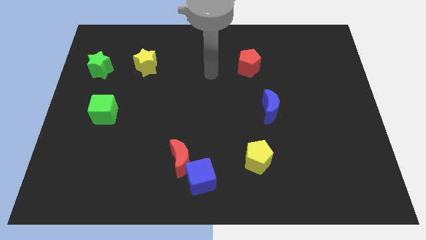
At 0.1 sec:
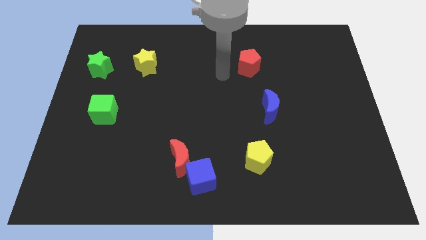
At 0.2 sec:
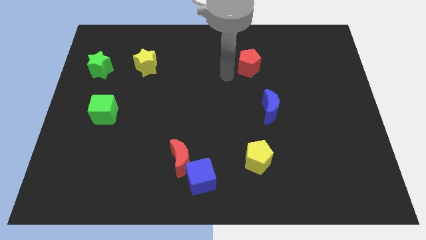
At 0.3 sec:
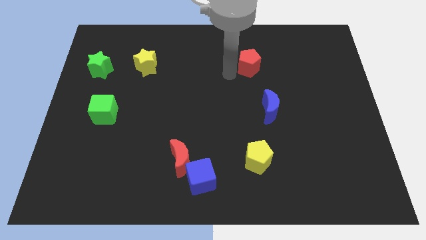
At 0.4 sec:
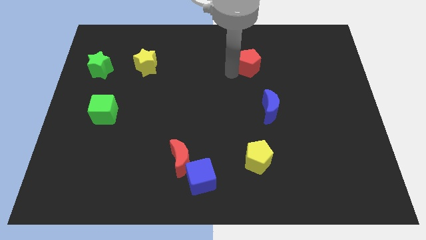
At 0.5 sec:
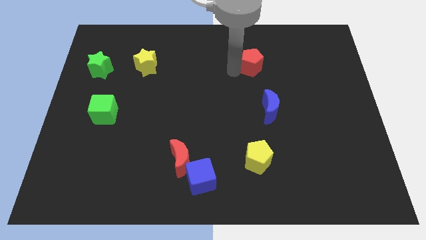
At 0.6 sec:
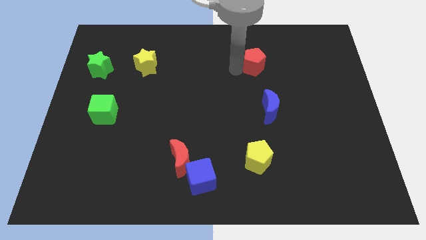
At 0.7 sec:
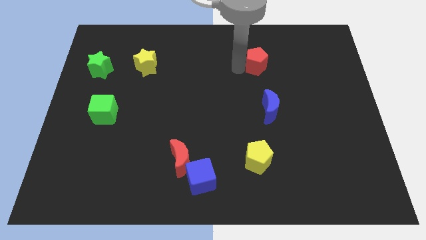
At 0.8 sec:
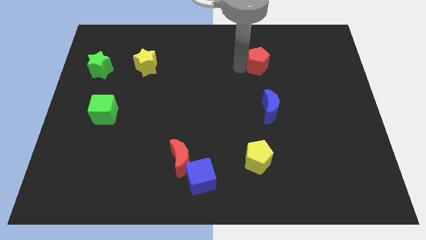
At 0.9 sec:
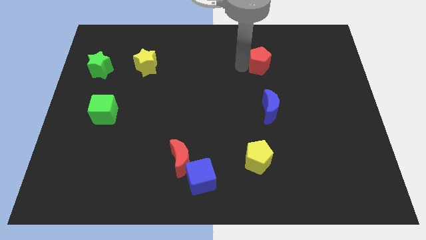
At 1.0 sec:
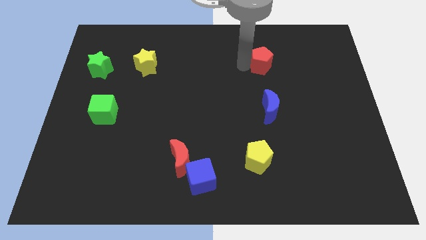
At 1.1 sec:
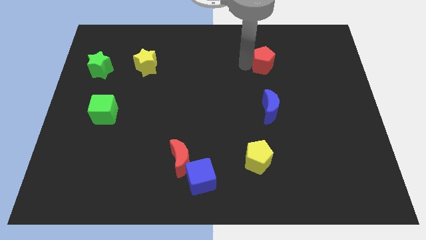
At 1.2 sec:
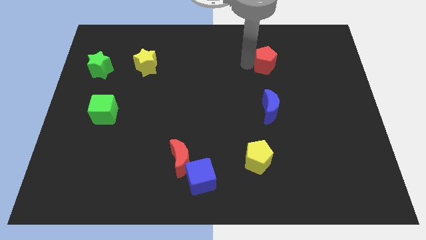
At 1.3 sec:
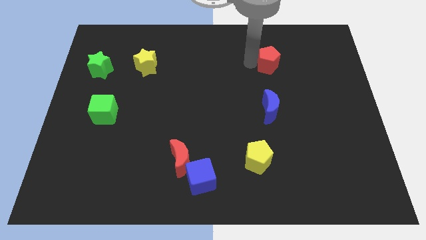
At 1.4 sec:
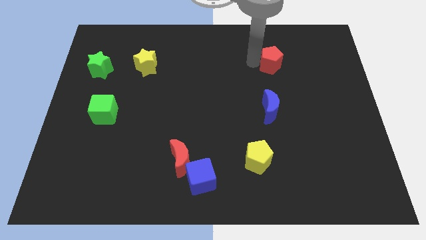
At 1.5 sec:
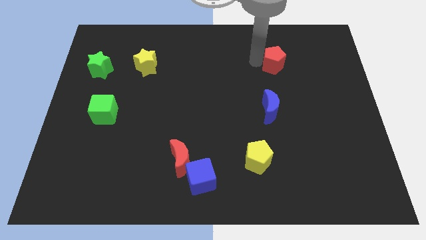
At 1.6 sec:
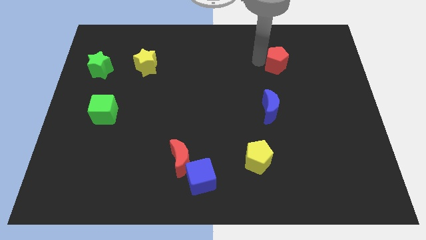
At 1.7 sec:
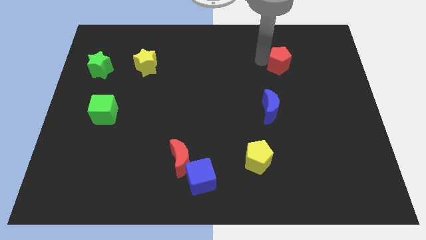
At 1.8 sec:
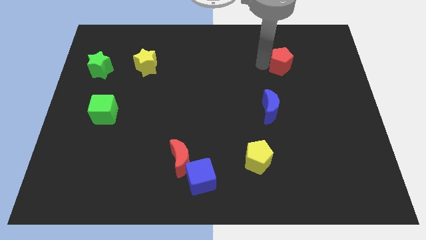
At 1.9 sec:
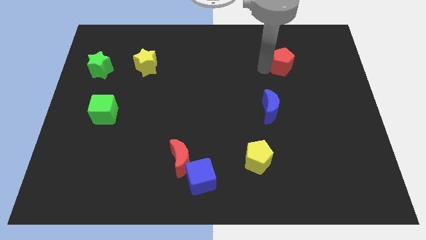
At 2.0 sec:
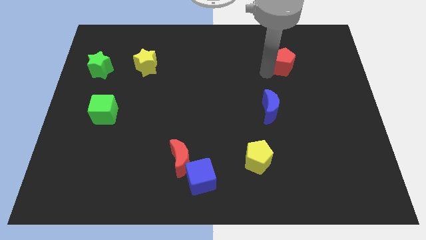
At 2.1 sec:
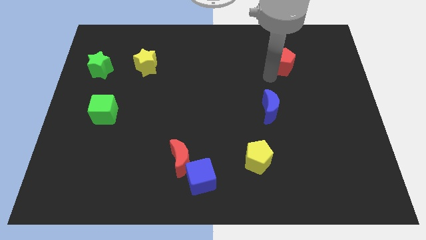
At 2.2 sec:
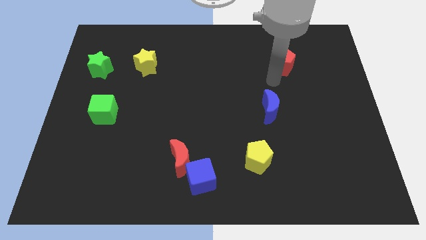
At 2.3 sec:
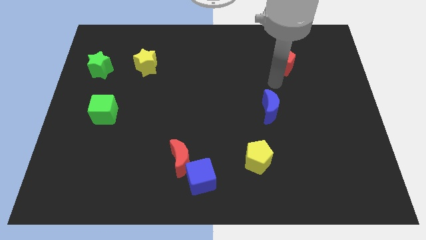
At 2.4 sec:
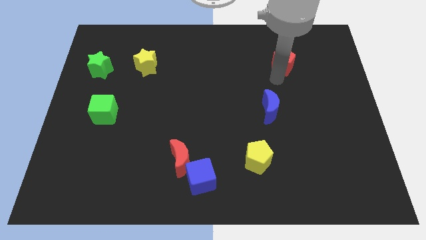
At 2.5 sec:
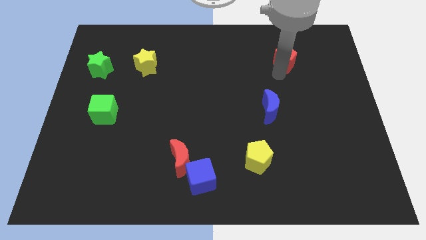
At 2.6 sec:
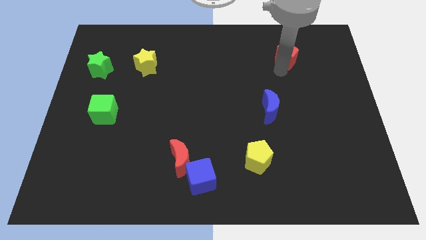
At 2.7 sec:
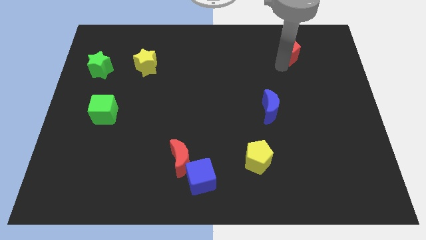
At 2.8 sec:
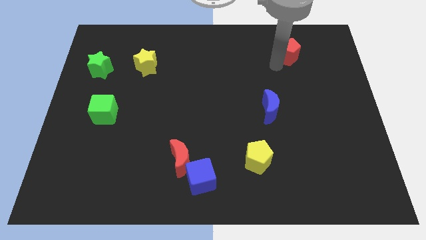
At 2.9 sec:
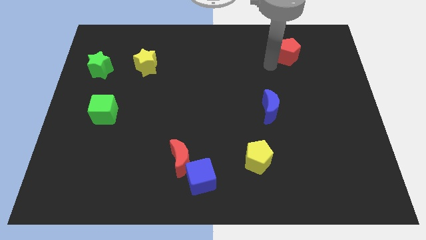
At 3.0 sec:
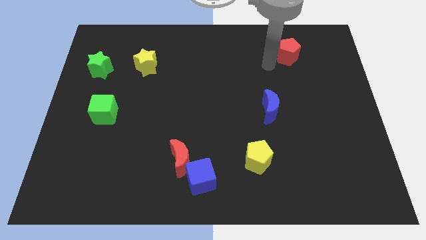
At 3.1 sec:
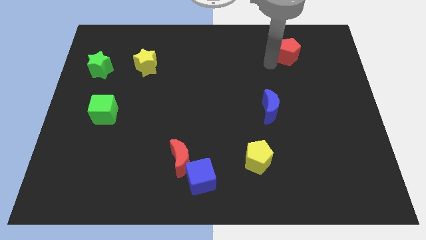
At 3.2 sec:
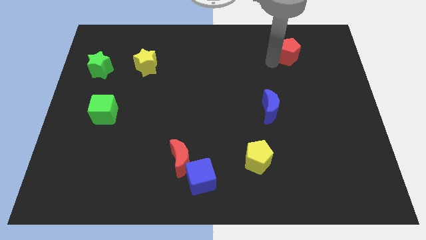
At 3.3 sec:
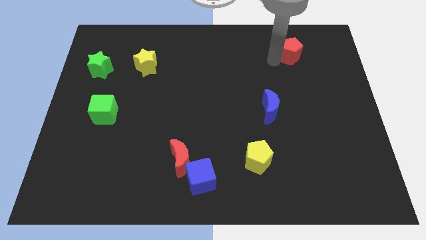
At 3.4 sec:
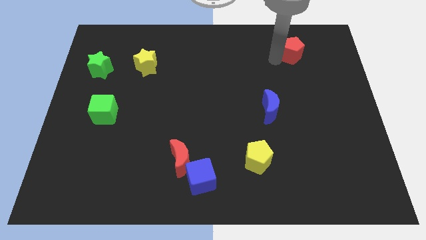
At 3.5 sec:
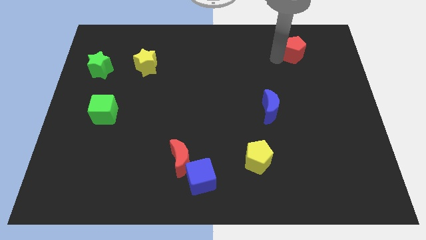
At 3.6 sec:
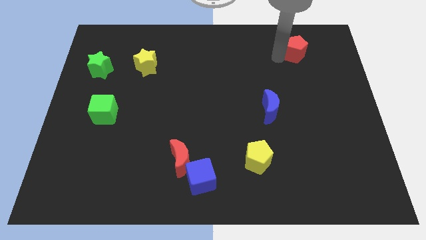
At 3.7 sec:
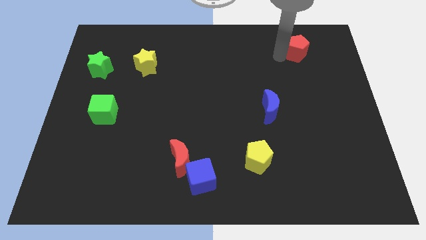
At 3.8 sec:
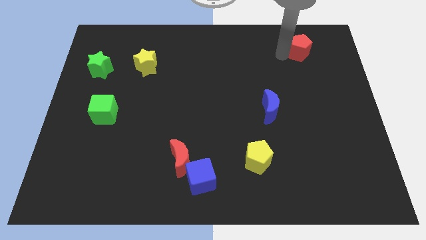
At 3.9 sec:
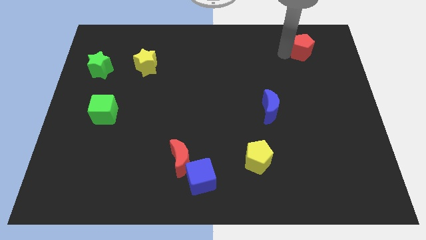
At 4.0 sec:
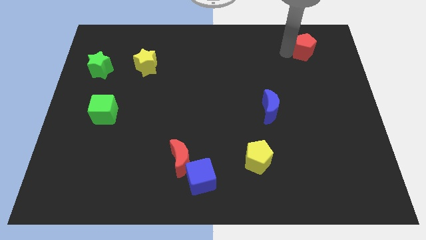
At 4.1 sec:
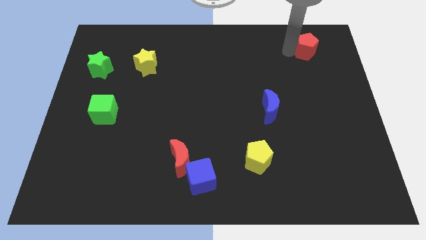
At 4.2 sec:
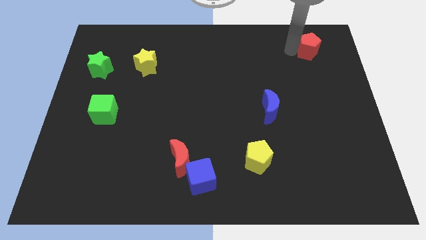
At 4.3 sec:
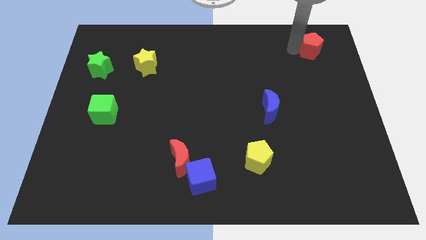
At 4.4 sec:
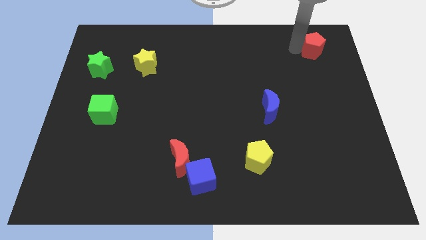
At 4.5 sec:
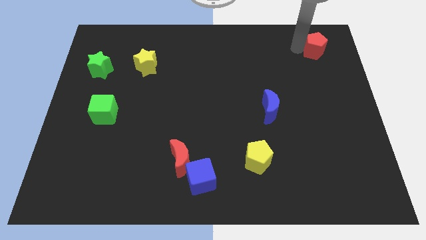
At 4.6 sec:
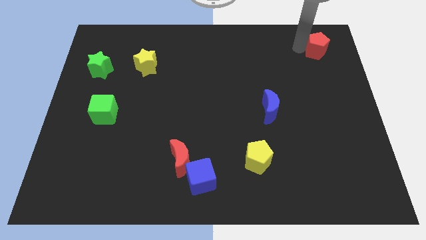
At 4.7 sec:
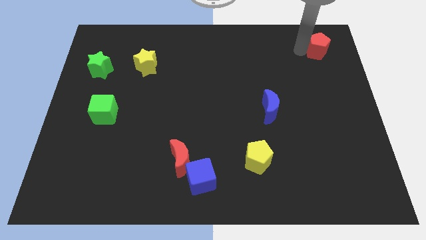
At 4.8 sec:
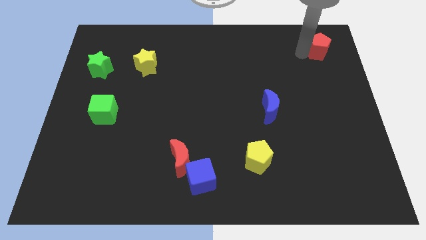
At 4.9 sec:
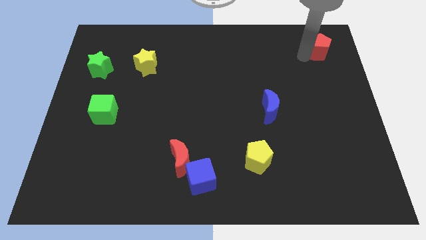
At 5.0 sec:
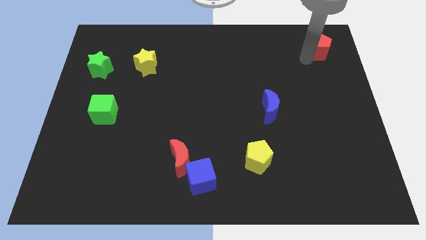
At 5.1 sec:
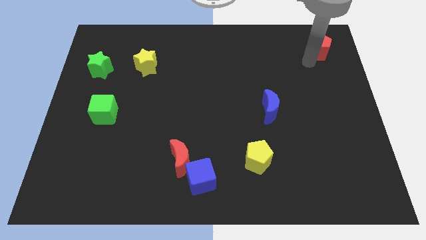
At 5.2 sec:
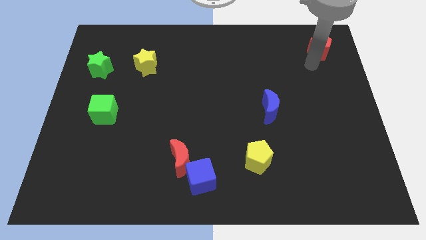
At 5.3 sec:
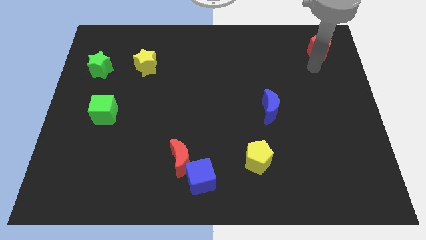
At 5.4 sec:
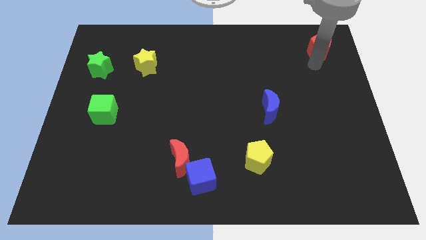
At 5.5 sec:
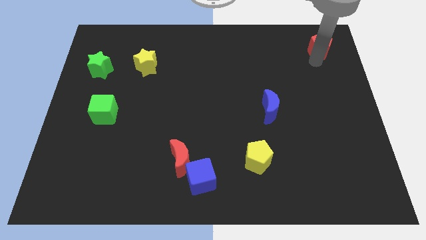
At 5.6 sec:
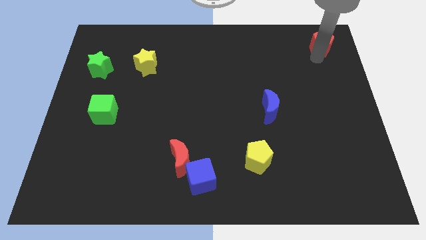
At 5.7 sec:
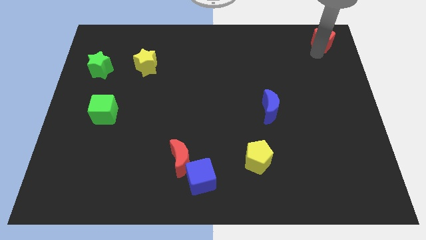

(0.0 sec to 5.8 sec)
push the red pentagon to the top right corner
